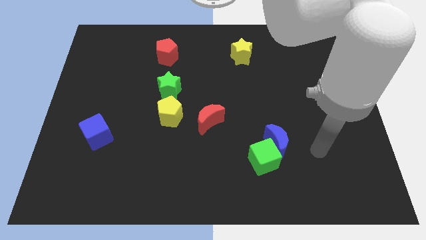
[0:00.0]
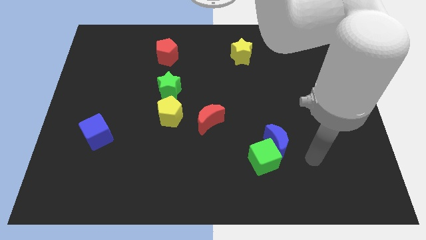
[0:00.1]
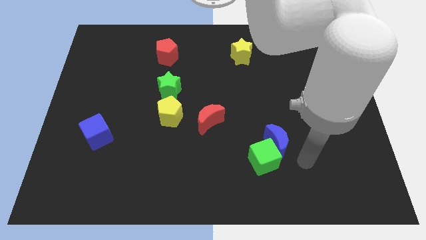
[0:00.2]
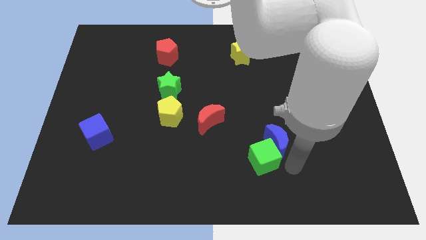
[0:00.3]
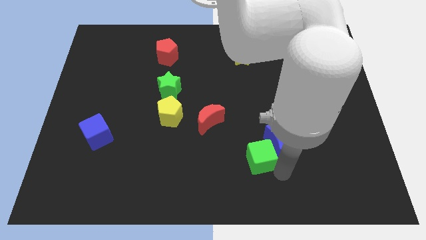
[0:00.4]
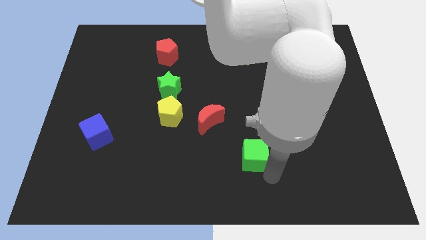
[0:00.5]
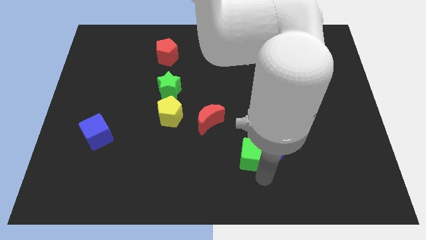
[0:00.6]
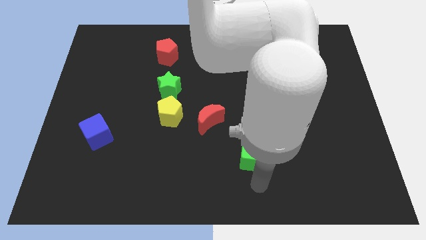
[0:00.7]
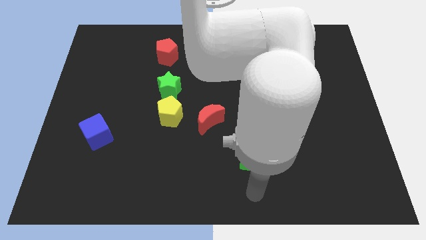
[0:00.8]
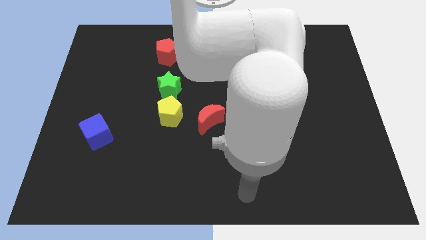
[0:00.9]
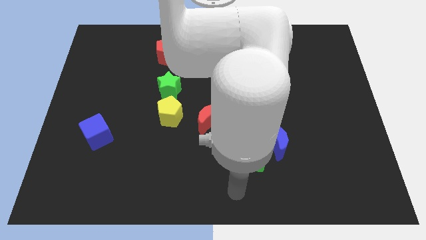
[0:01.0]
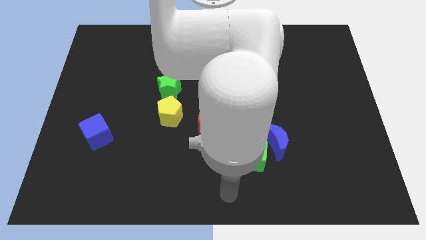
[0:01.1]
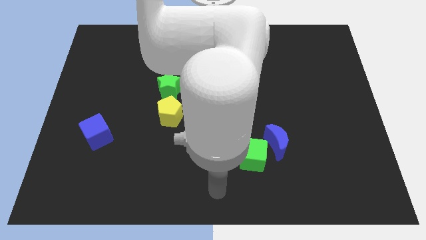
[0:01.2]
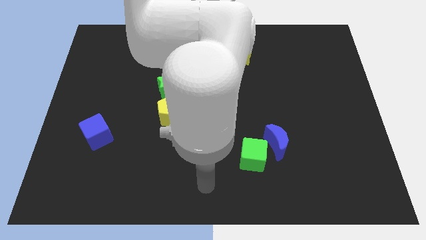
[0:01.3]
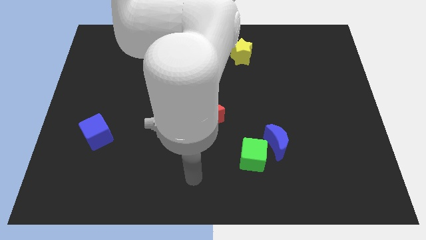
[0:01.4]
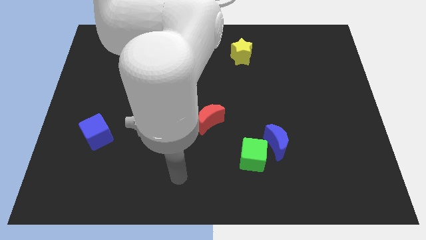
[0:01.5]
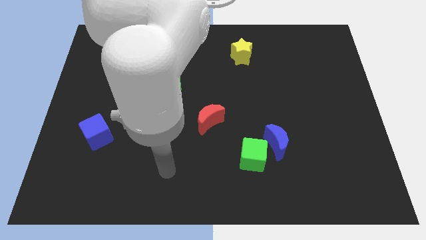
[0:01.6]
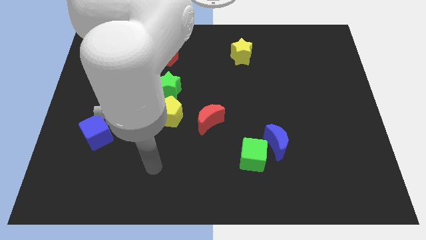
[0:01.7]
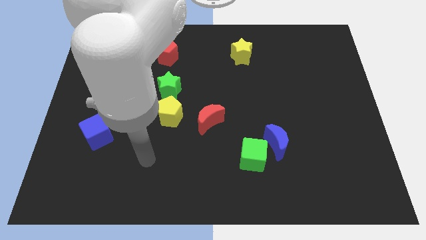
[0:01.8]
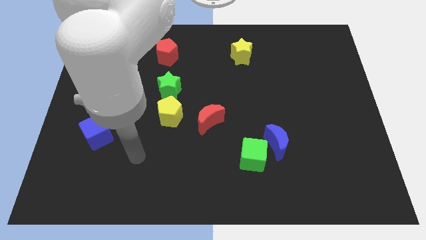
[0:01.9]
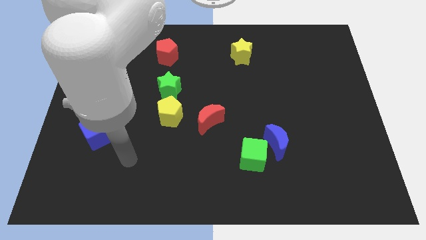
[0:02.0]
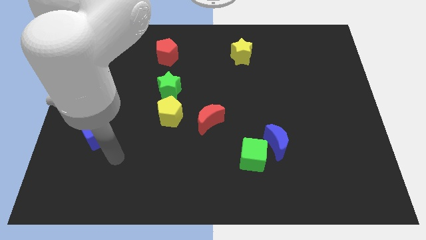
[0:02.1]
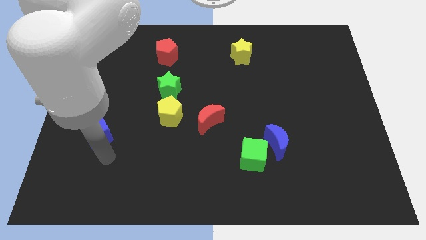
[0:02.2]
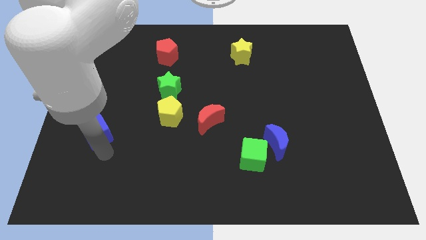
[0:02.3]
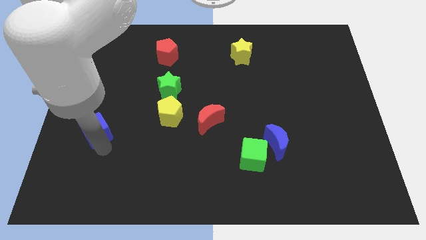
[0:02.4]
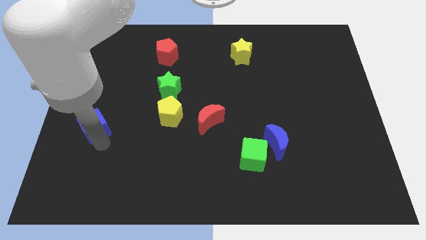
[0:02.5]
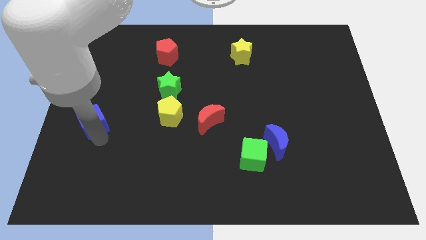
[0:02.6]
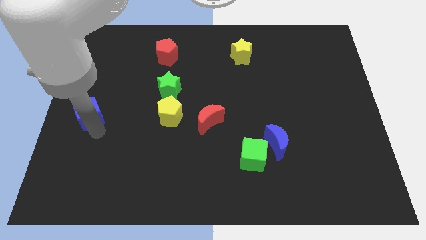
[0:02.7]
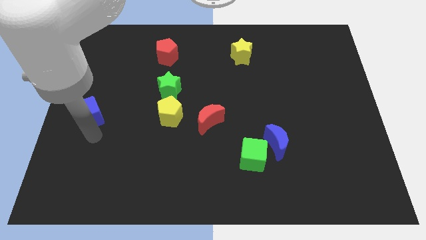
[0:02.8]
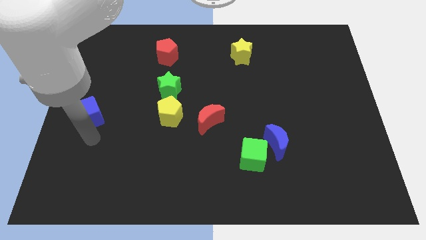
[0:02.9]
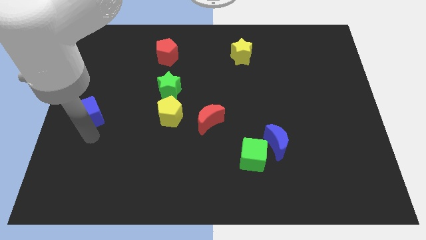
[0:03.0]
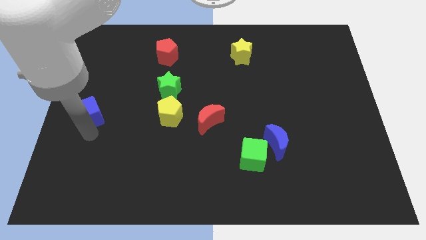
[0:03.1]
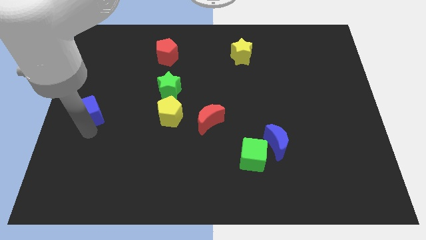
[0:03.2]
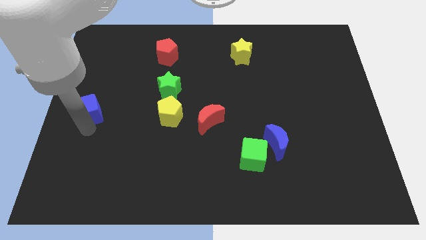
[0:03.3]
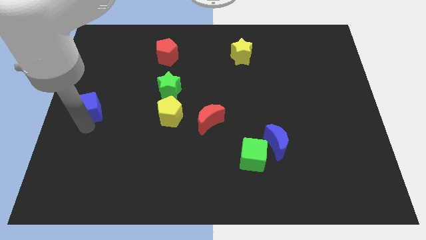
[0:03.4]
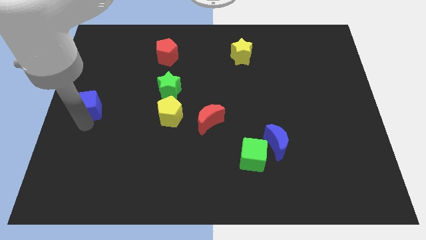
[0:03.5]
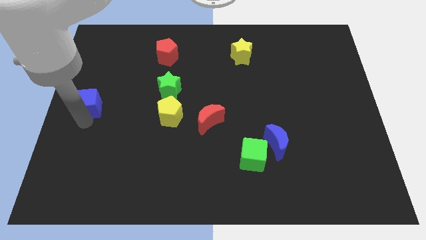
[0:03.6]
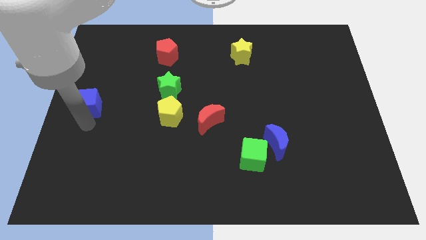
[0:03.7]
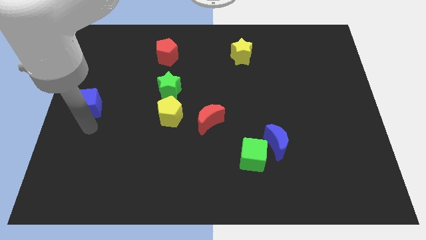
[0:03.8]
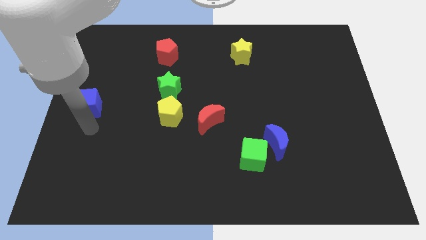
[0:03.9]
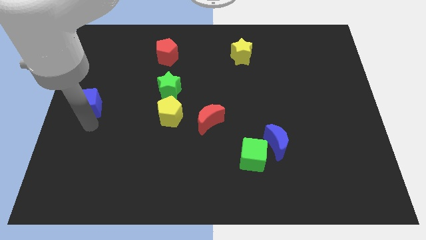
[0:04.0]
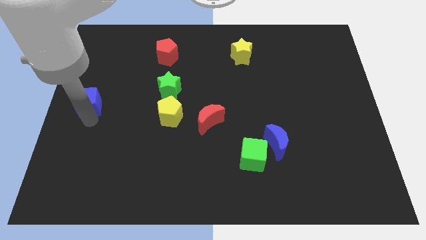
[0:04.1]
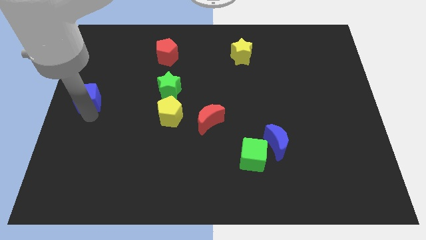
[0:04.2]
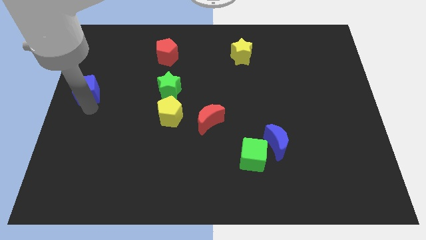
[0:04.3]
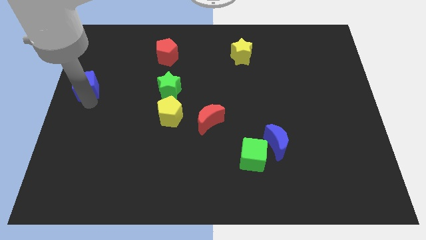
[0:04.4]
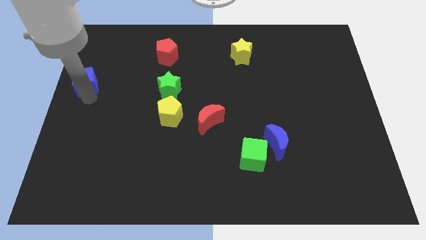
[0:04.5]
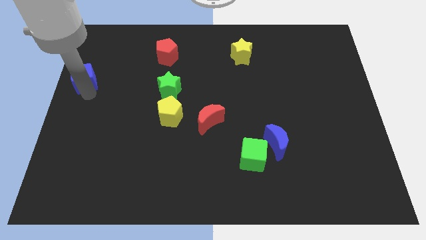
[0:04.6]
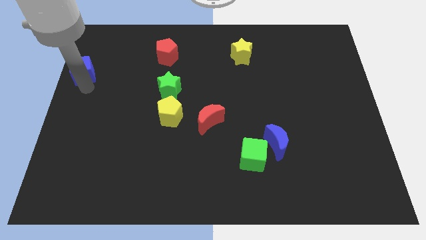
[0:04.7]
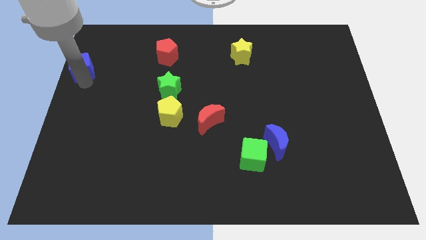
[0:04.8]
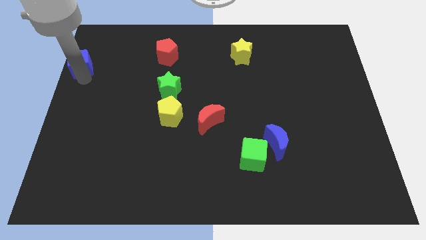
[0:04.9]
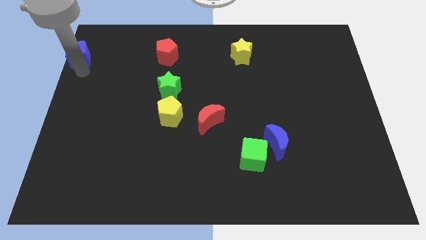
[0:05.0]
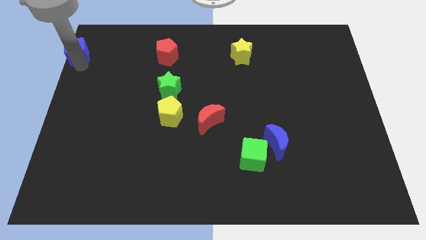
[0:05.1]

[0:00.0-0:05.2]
put the blue cube to the top left corner

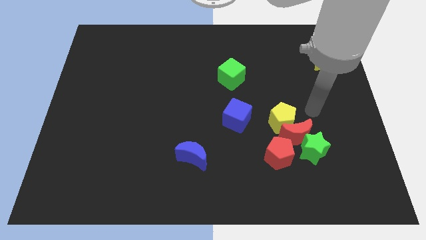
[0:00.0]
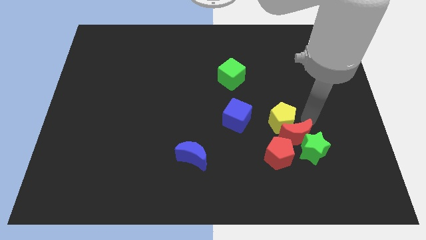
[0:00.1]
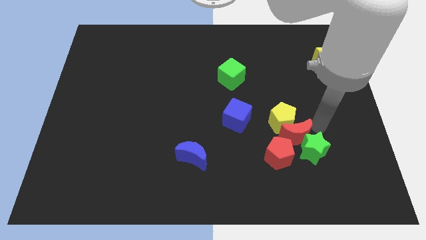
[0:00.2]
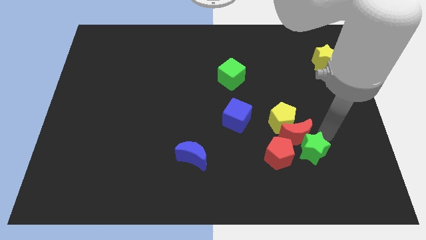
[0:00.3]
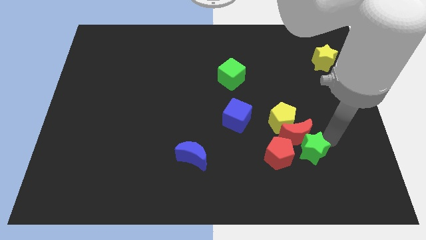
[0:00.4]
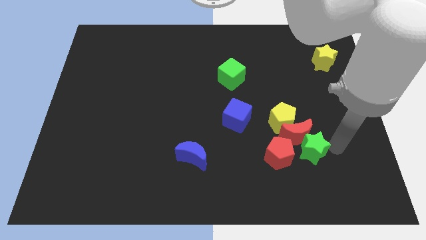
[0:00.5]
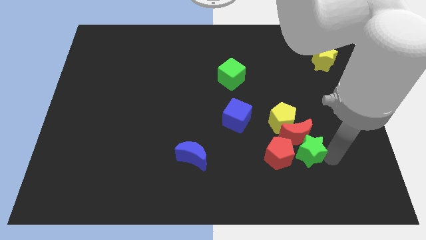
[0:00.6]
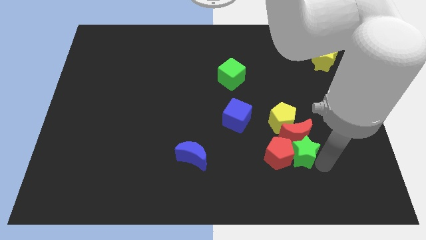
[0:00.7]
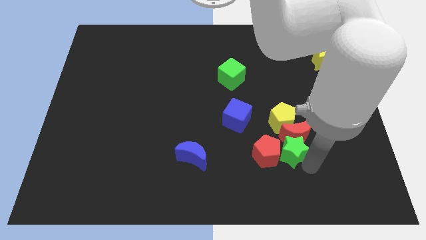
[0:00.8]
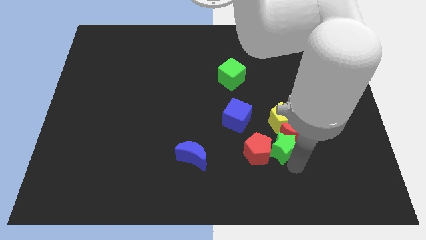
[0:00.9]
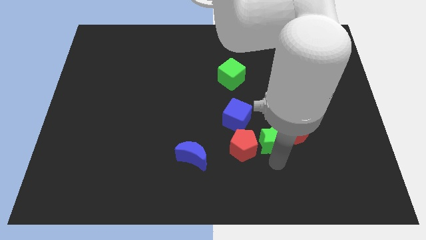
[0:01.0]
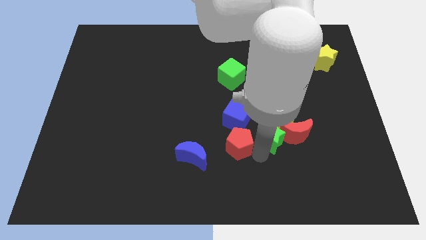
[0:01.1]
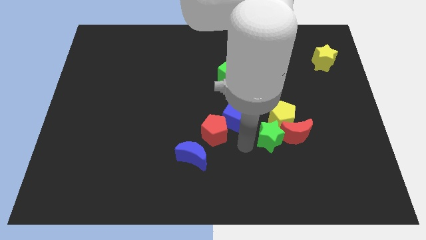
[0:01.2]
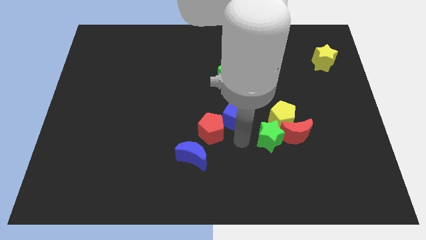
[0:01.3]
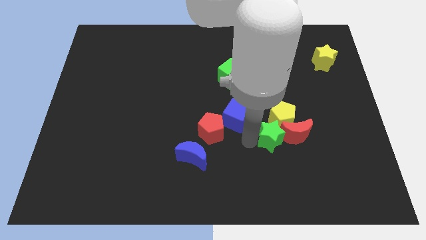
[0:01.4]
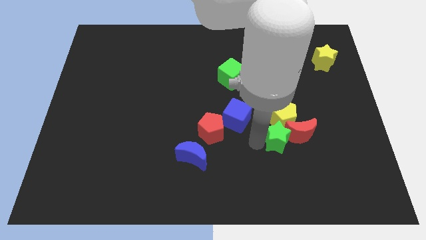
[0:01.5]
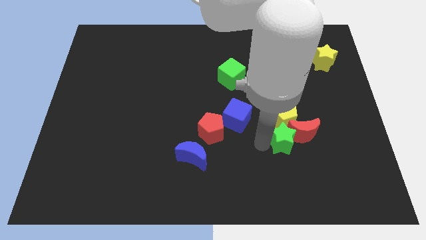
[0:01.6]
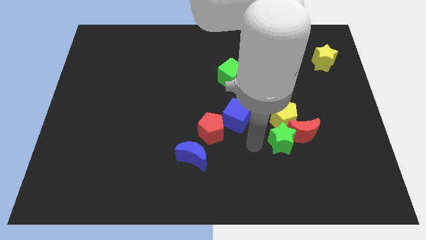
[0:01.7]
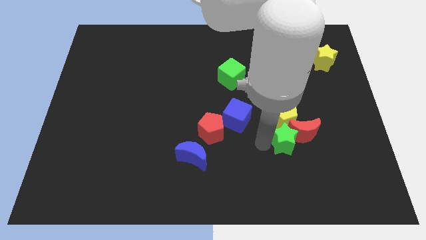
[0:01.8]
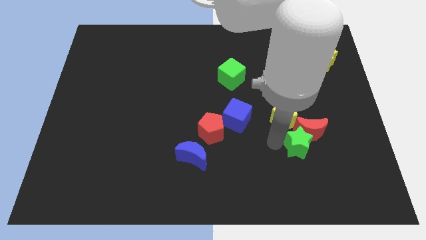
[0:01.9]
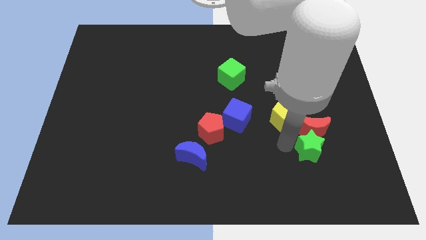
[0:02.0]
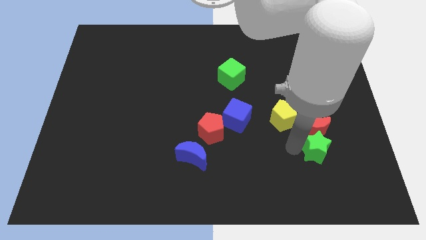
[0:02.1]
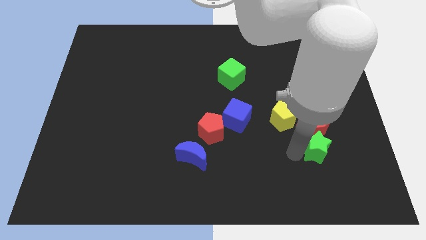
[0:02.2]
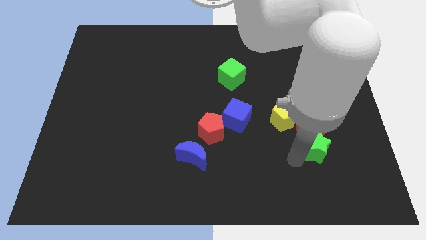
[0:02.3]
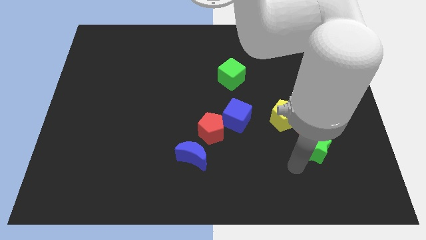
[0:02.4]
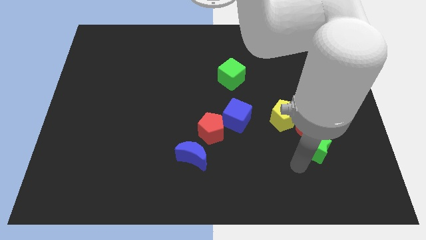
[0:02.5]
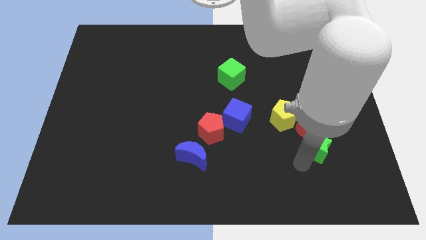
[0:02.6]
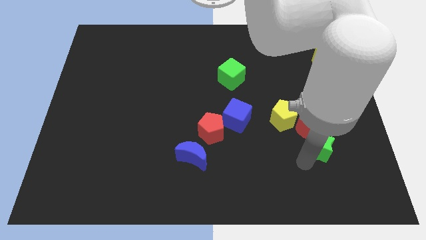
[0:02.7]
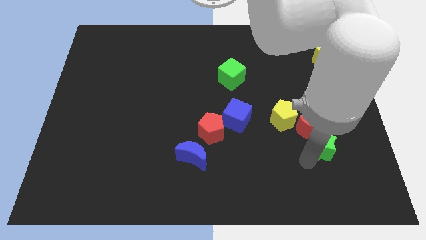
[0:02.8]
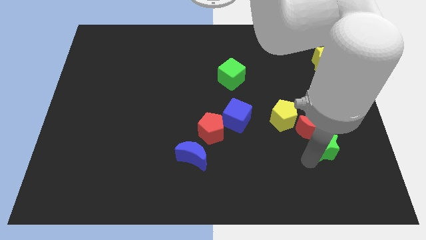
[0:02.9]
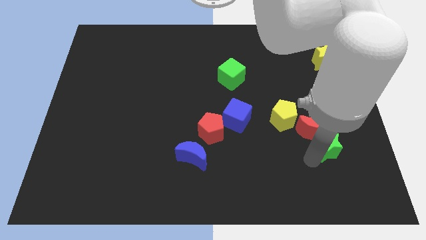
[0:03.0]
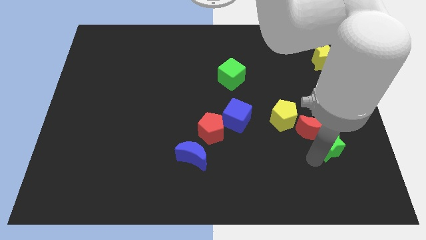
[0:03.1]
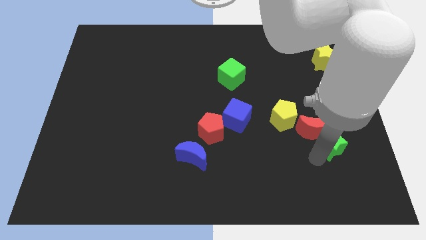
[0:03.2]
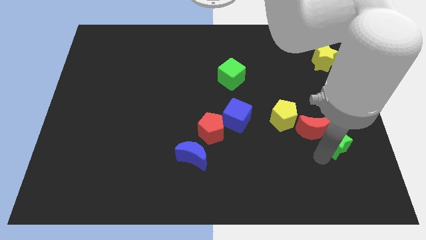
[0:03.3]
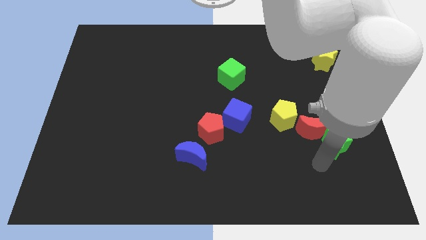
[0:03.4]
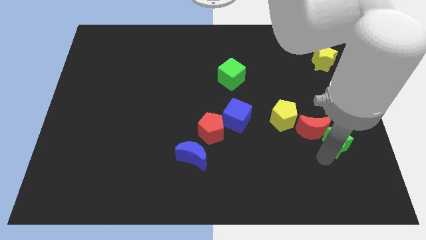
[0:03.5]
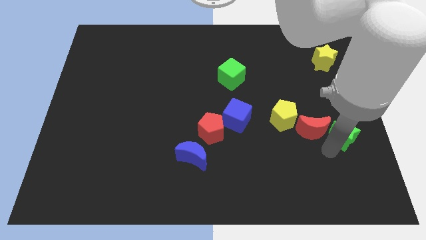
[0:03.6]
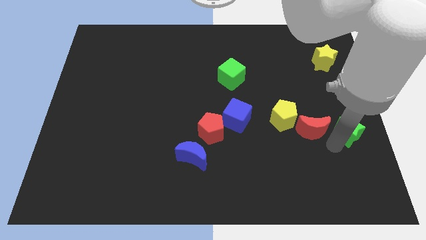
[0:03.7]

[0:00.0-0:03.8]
slide the green star to the right side
